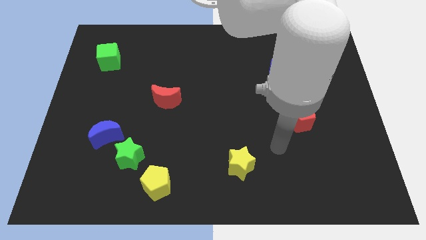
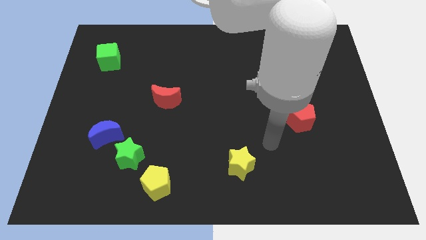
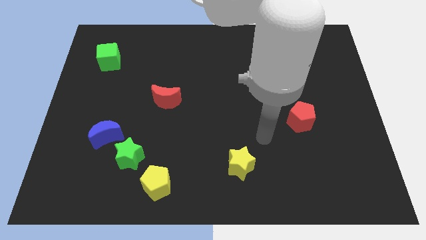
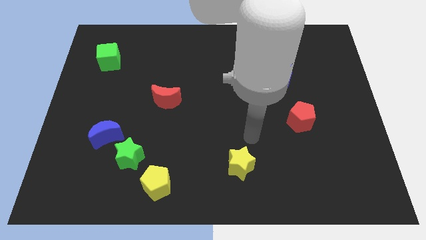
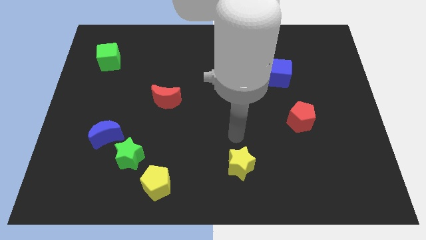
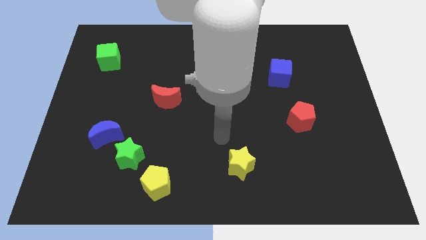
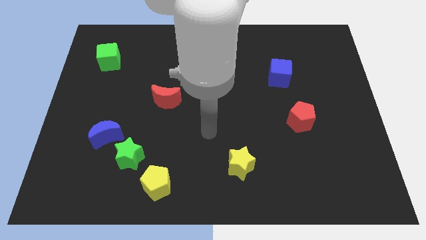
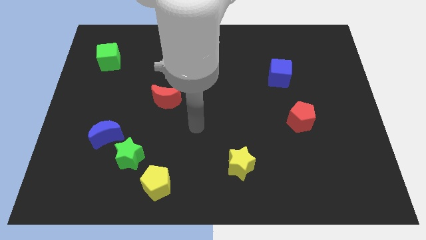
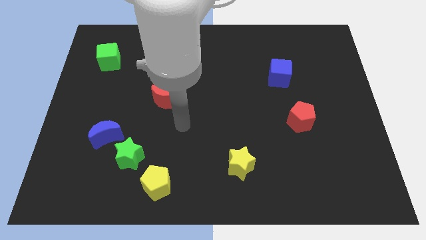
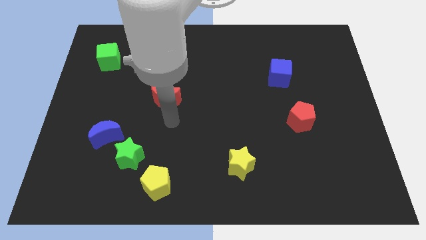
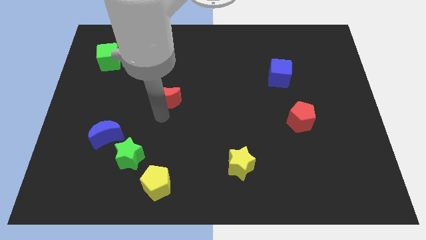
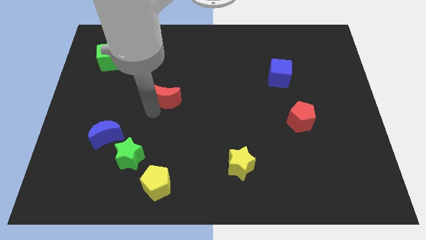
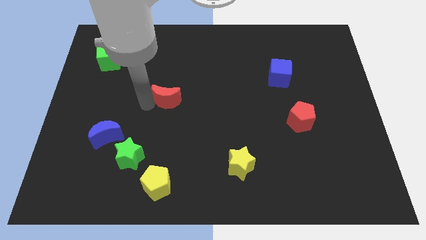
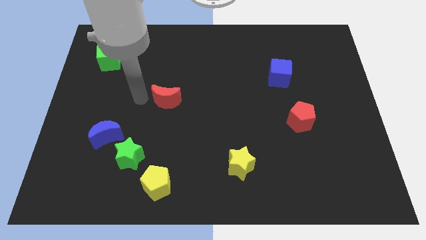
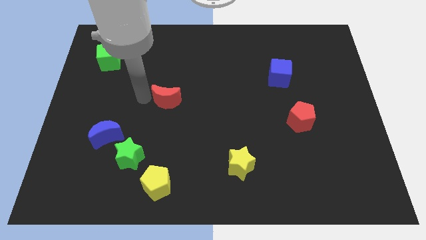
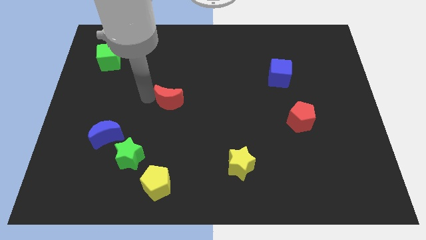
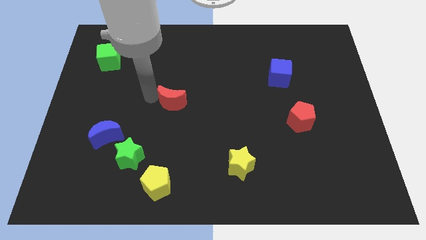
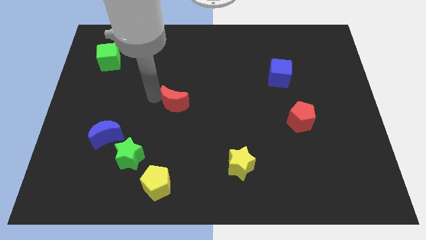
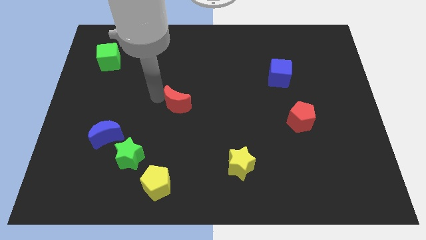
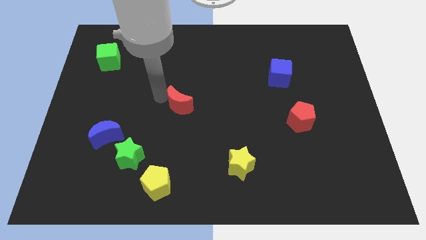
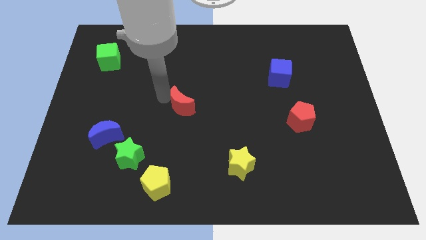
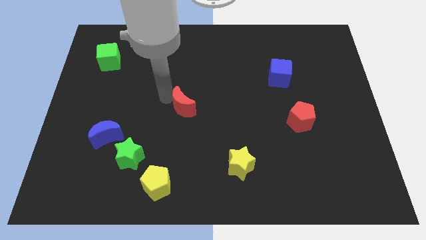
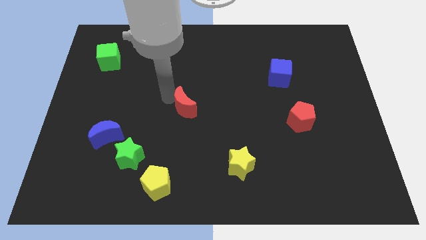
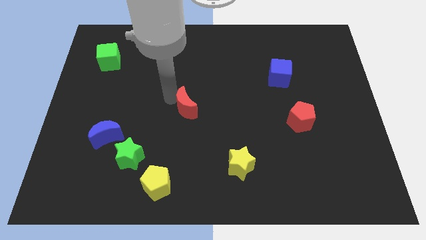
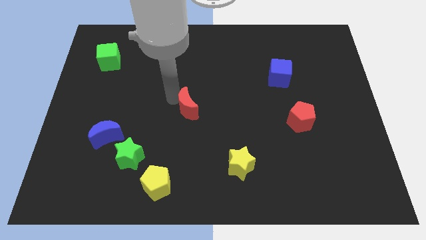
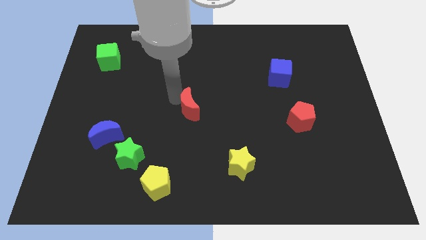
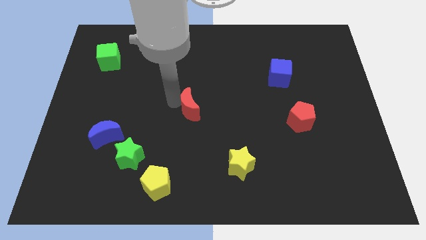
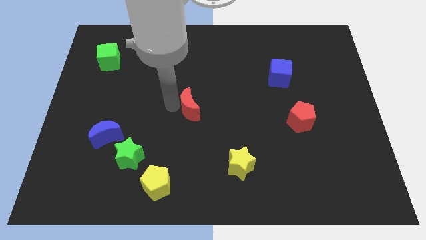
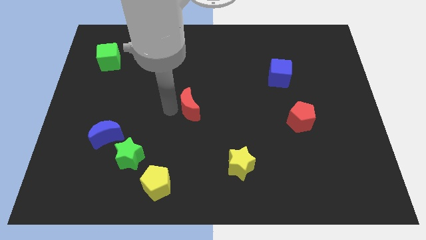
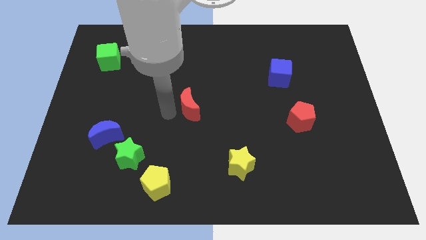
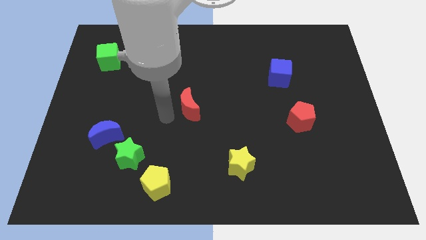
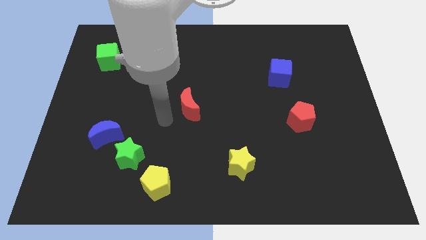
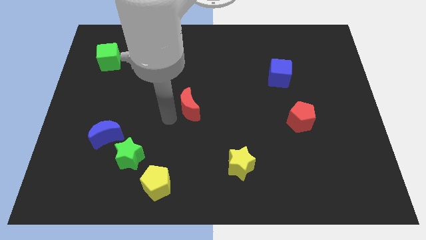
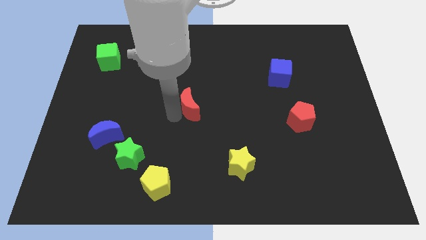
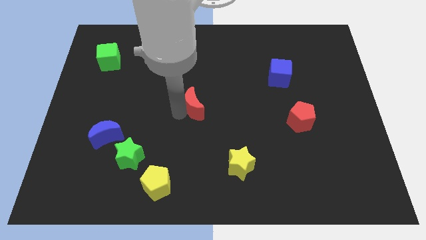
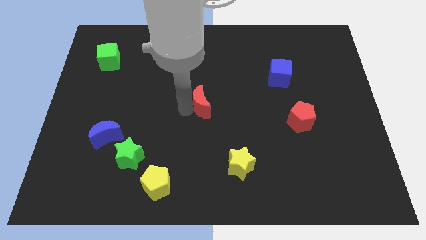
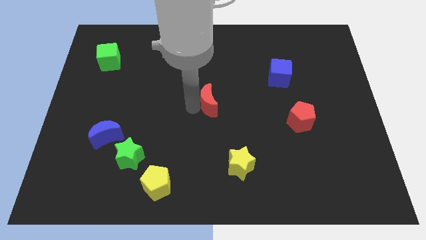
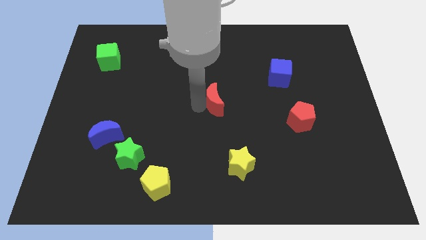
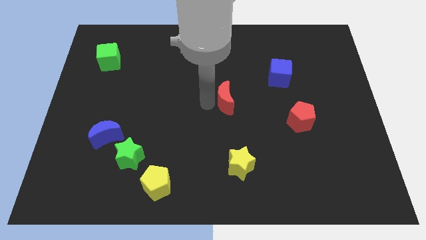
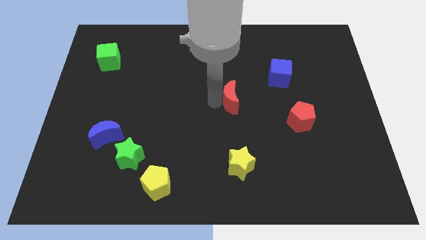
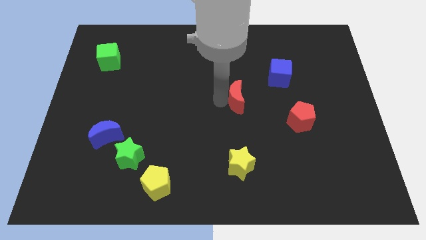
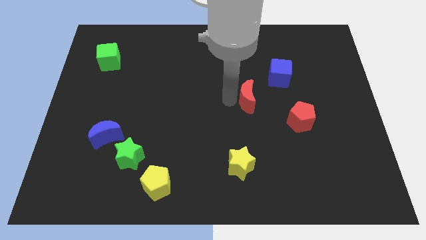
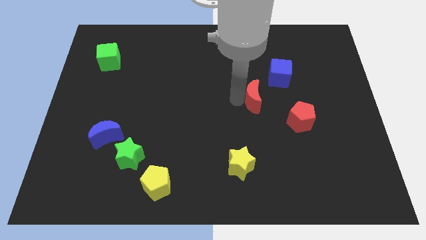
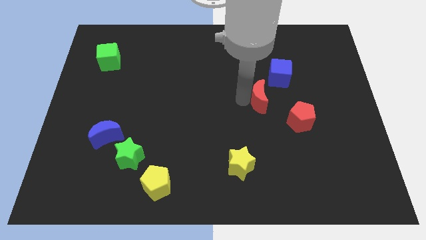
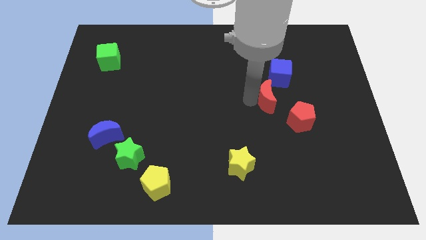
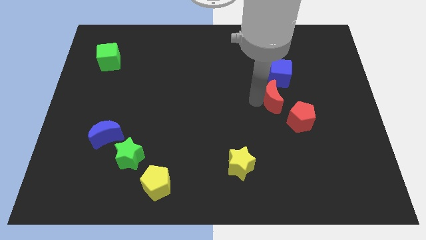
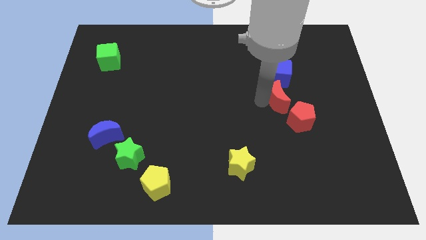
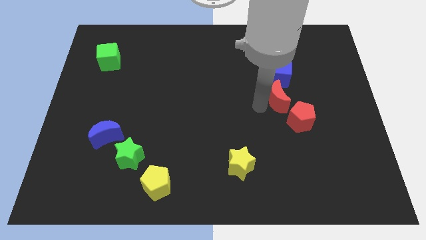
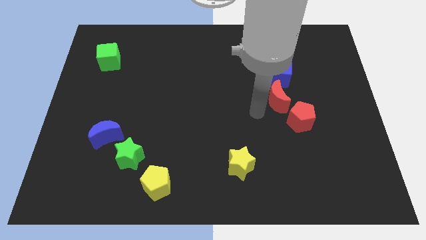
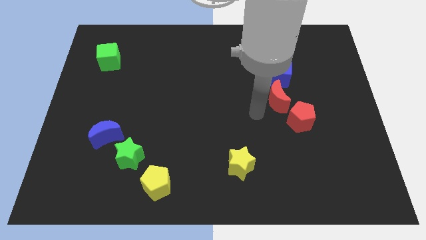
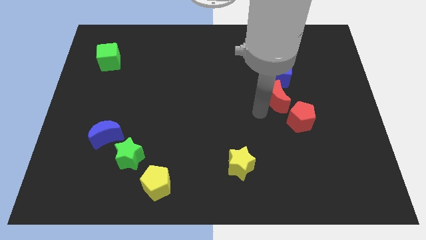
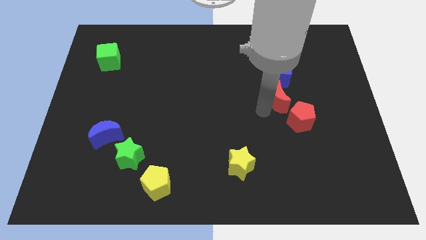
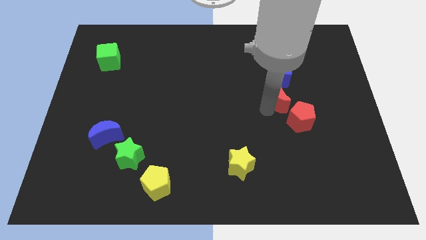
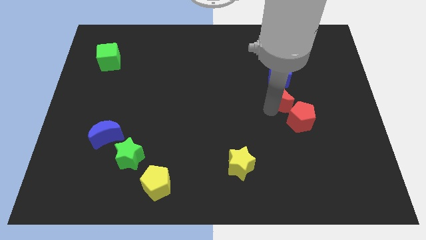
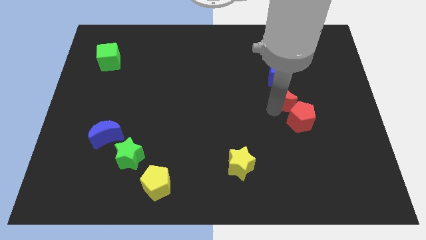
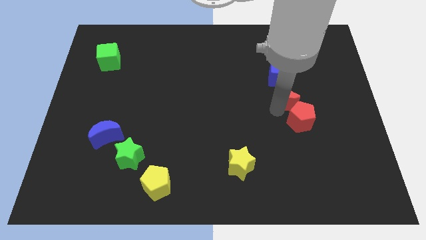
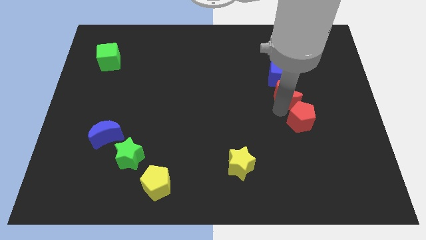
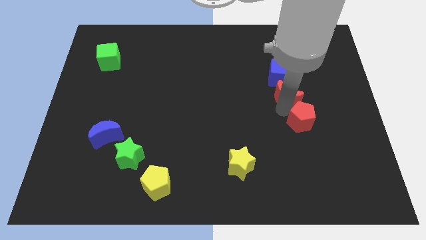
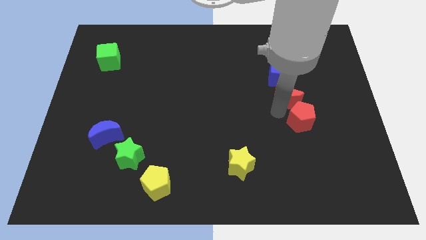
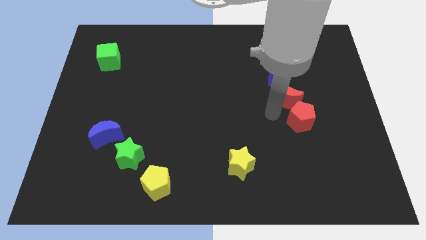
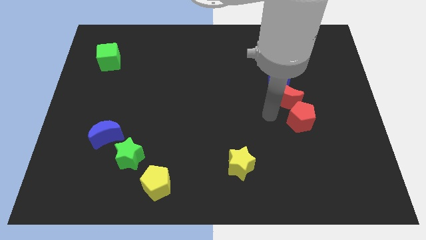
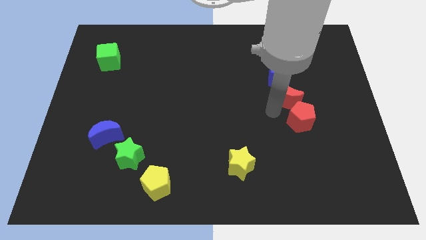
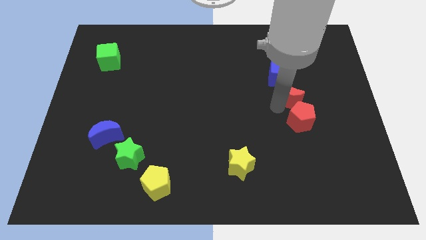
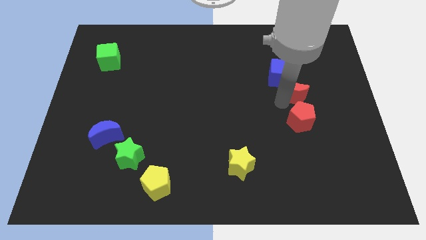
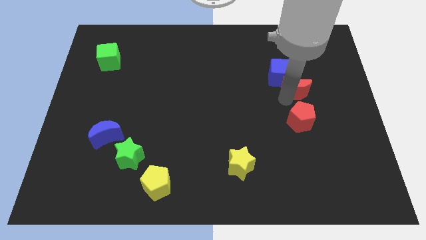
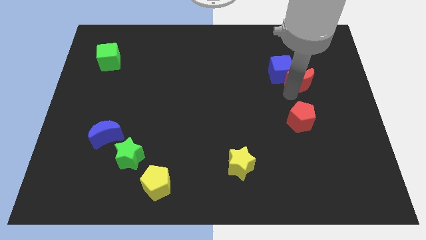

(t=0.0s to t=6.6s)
move the red moon to the right side of the blue cube
